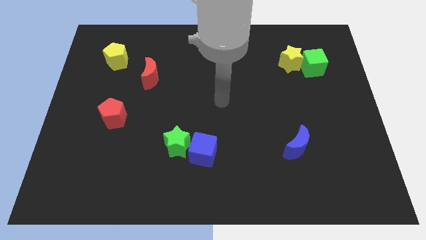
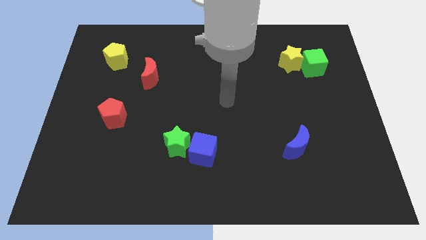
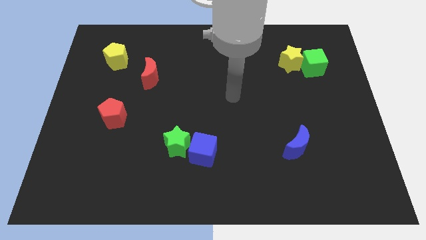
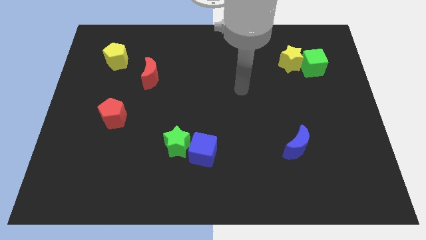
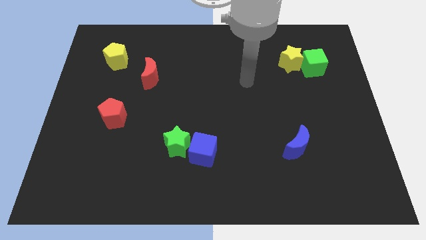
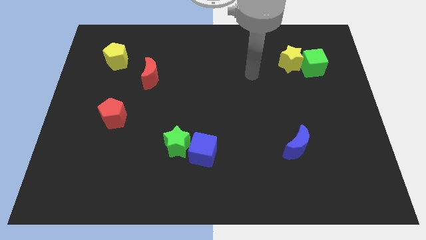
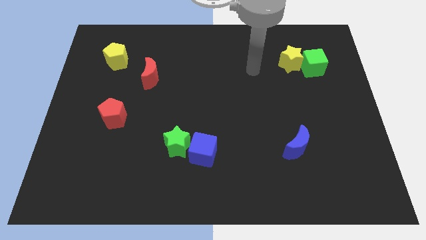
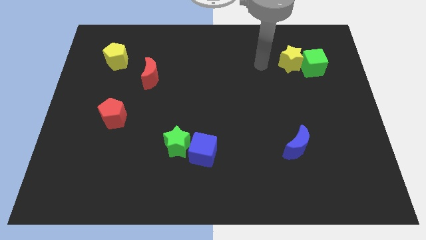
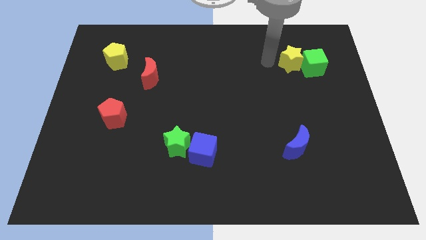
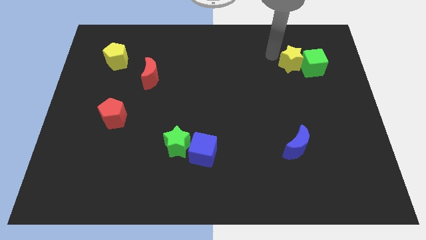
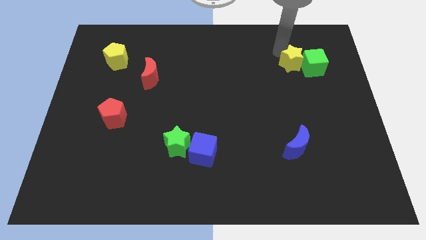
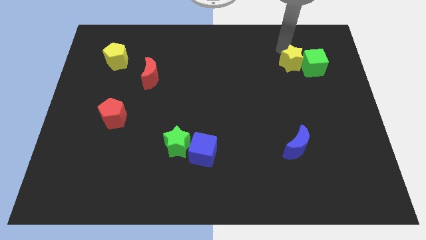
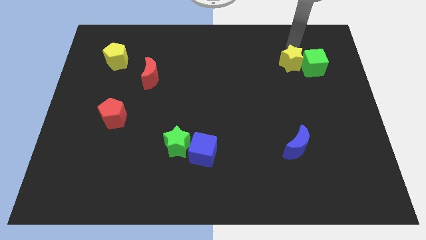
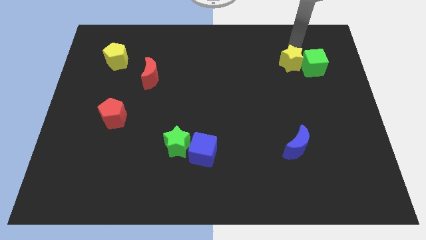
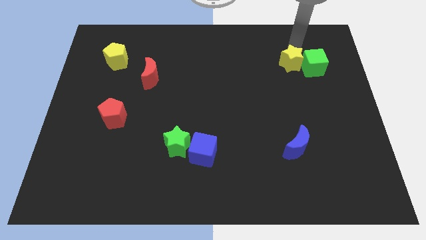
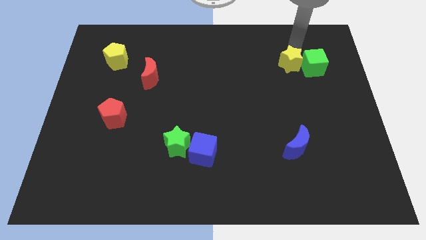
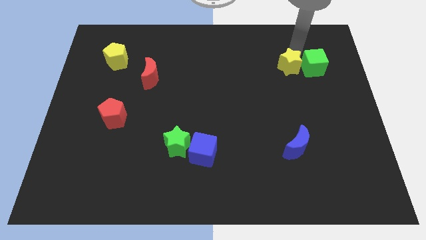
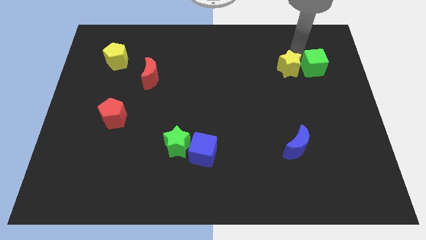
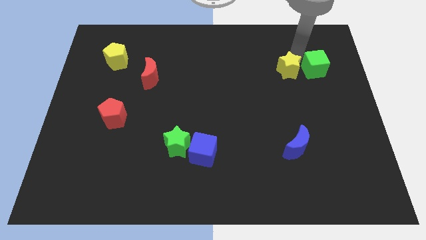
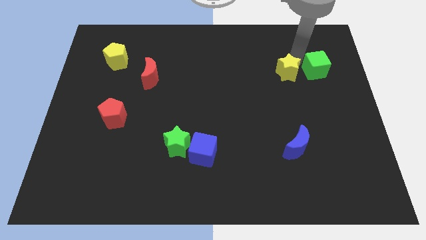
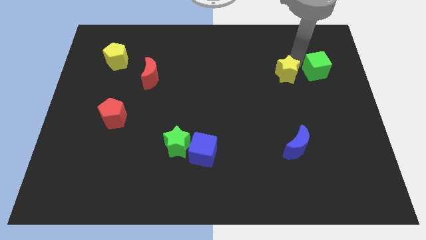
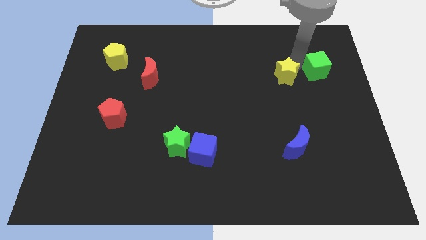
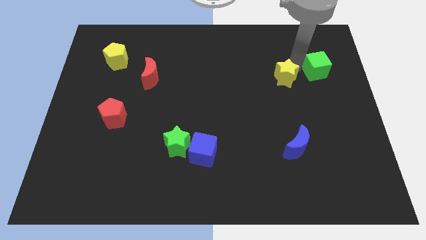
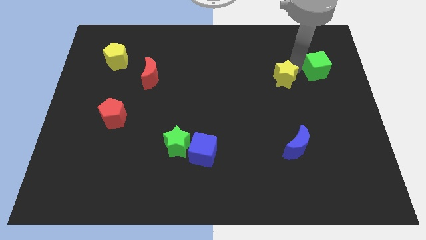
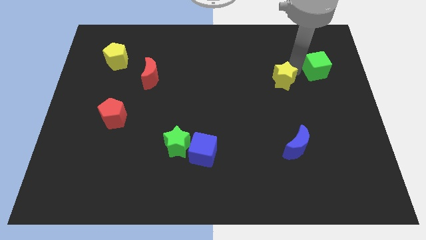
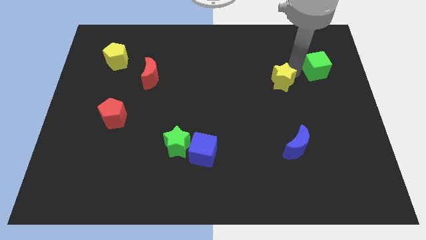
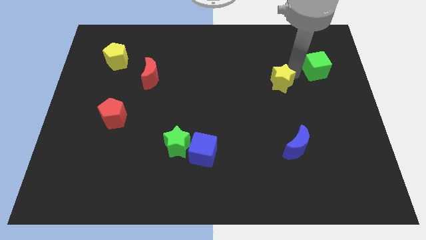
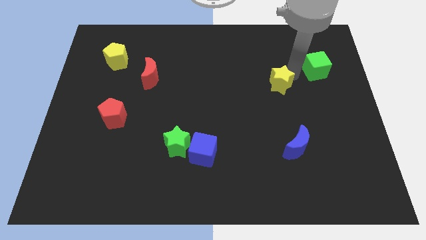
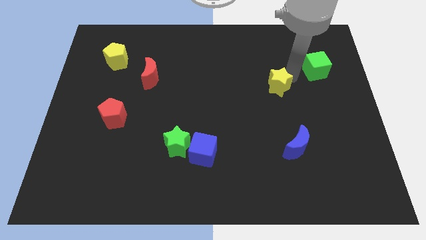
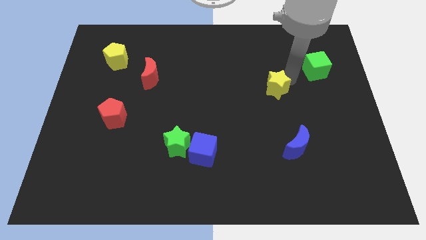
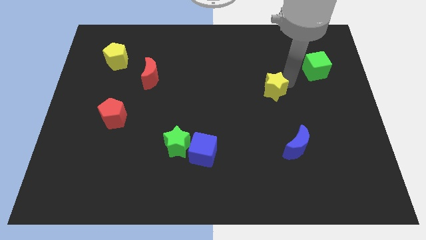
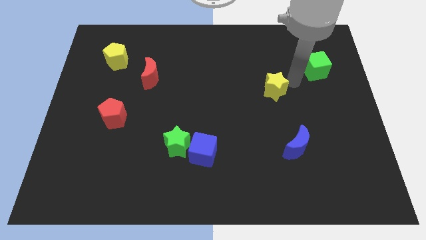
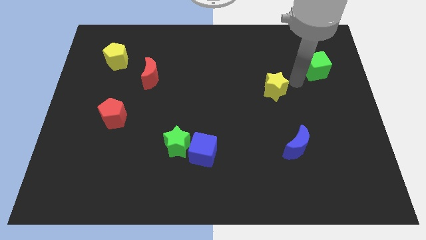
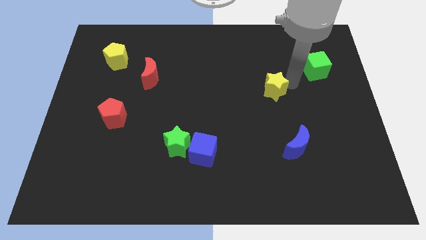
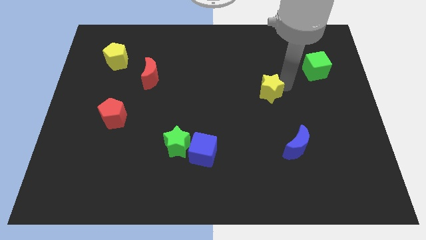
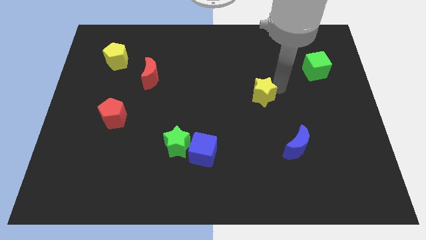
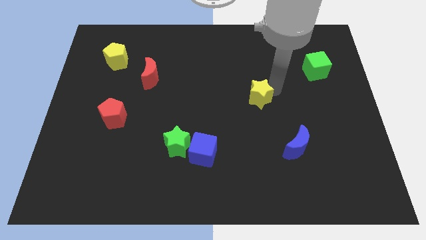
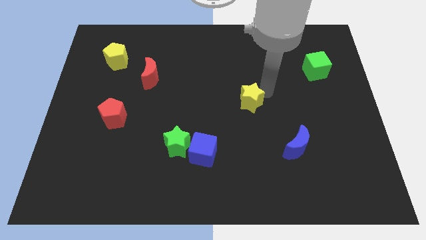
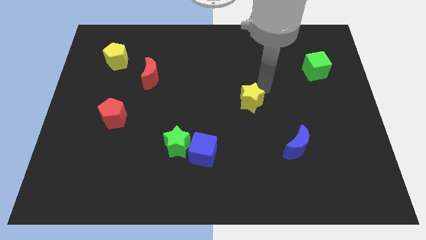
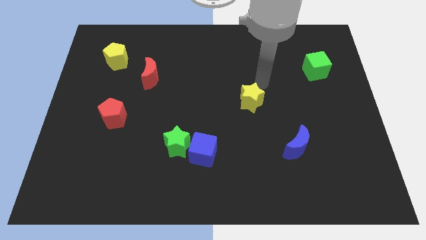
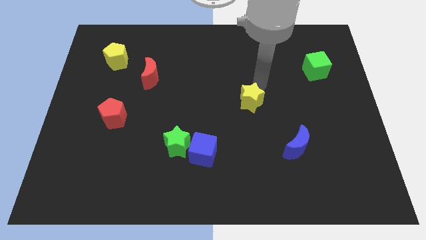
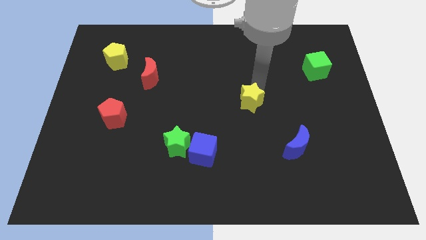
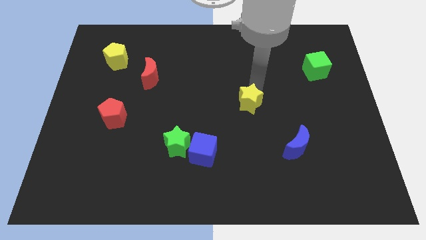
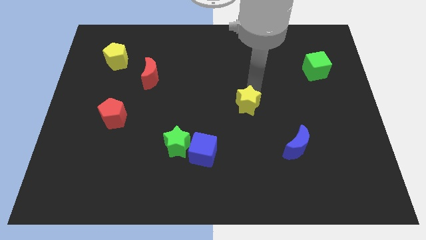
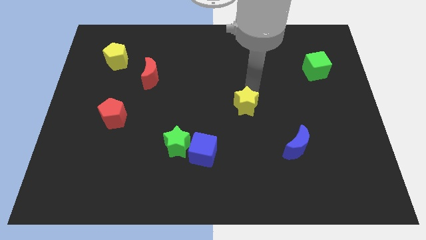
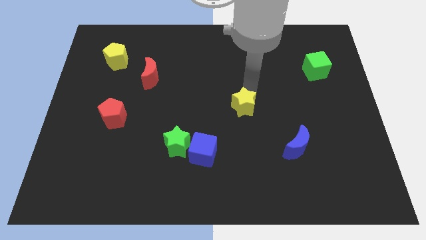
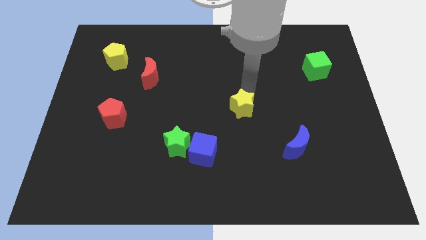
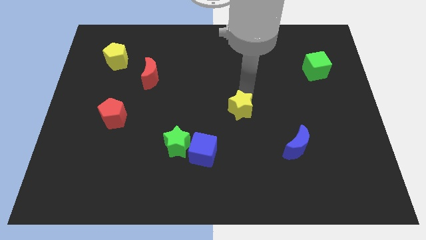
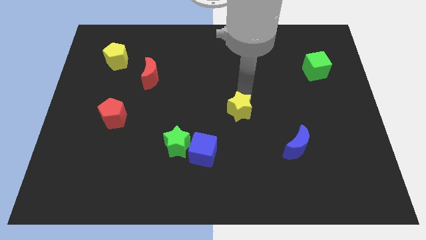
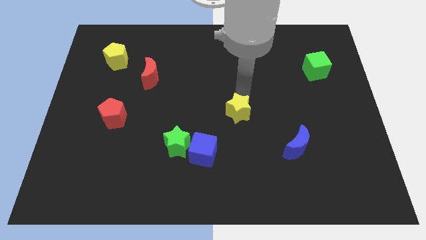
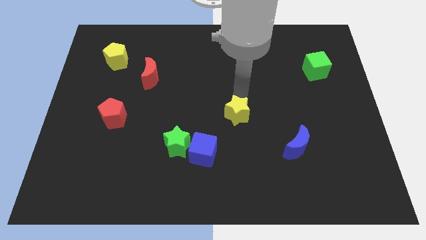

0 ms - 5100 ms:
move the yellow star to the top right side of the blue cube

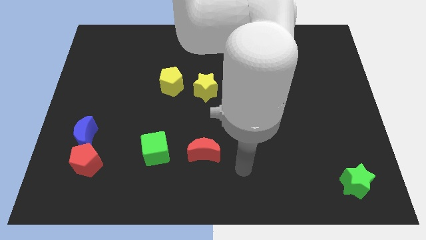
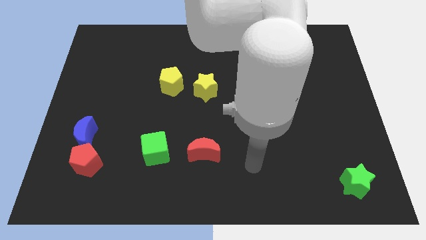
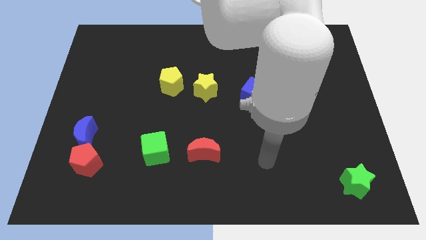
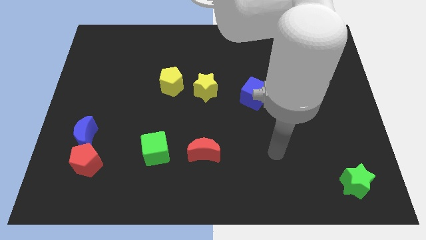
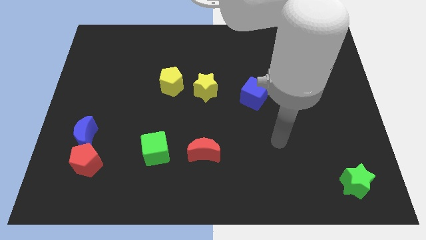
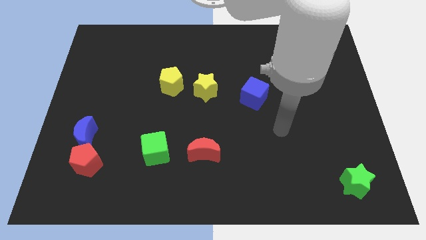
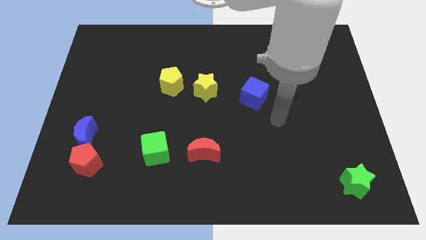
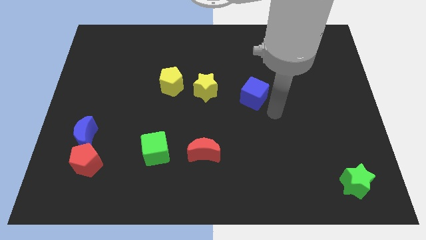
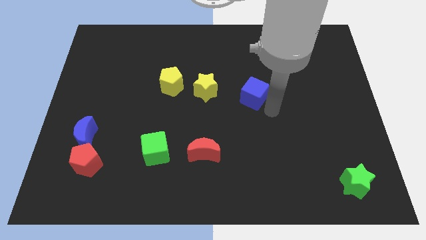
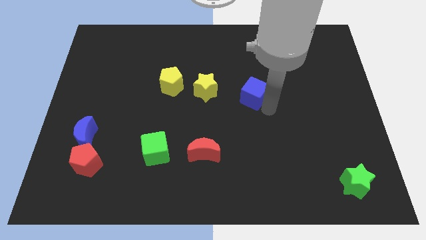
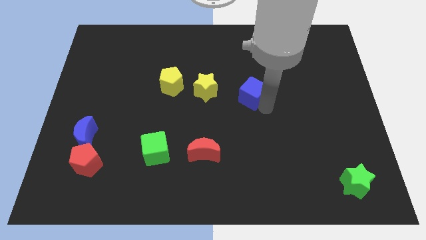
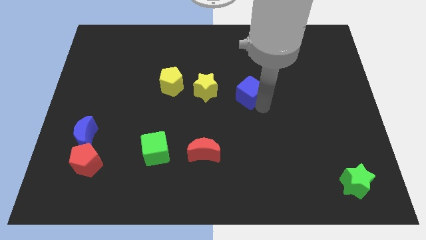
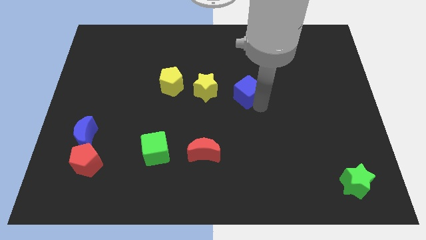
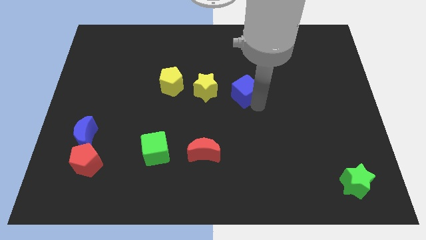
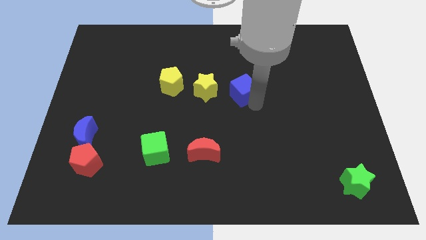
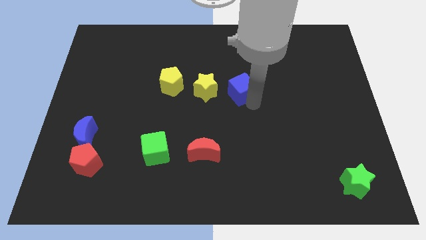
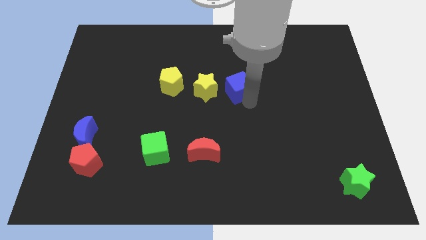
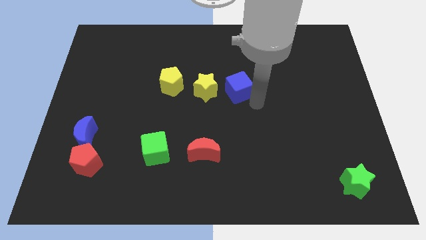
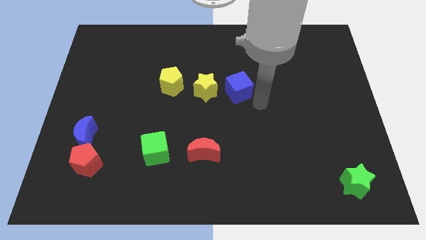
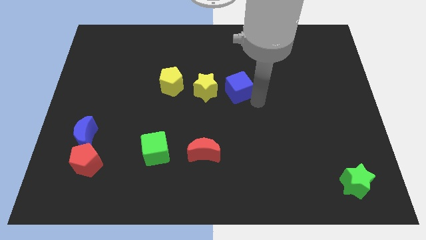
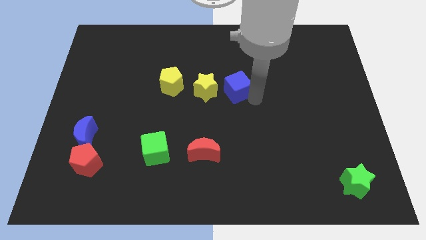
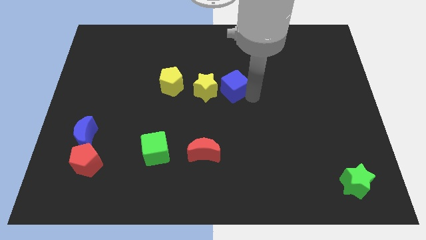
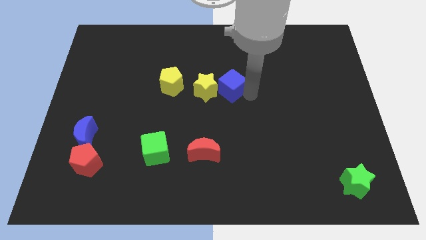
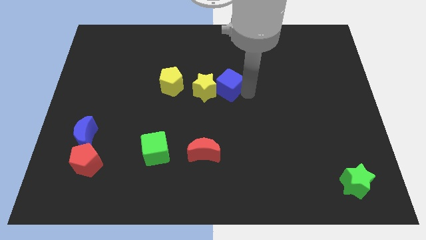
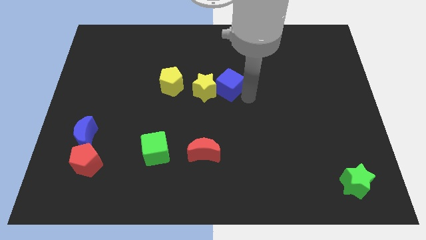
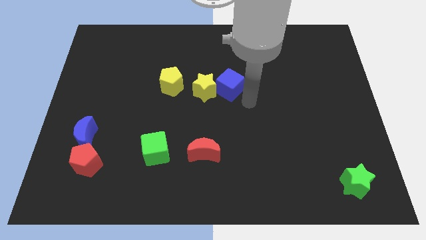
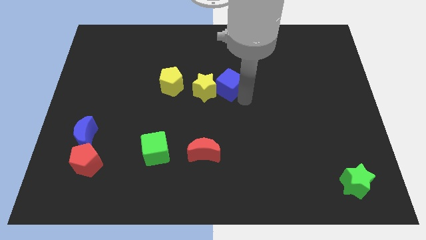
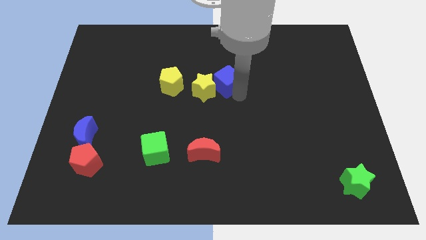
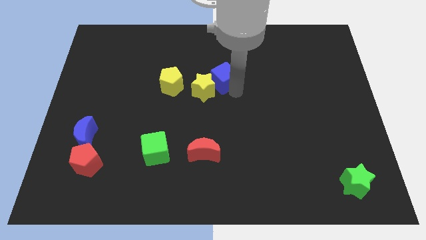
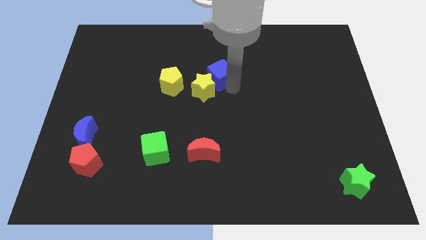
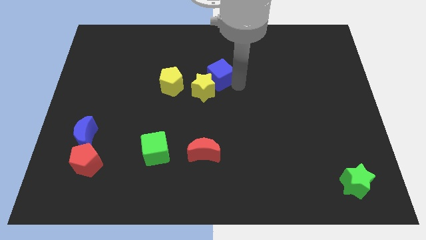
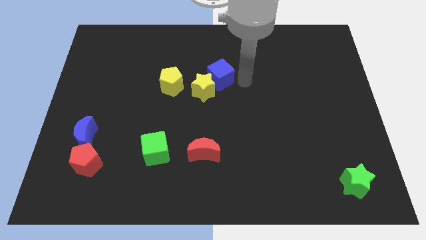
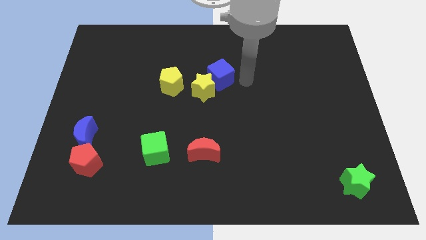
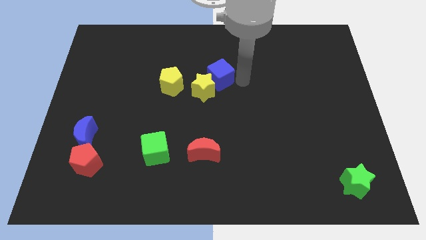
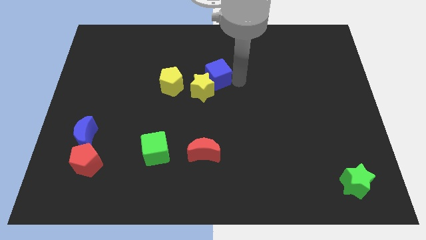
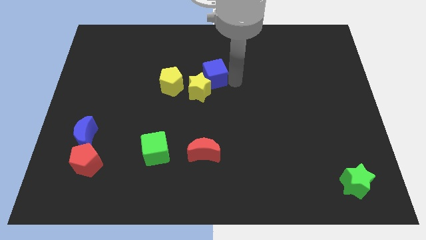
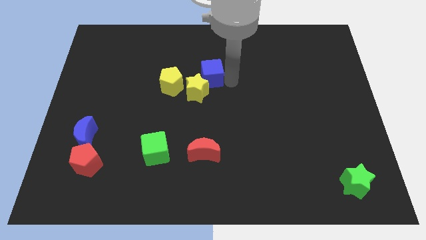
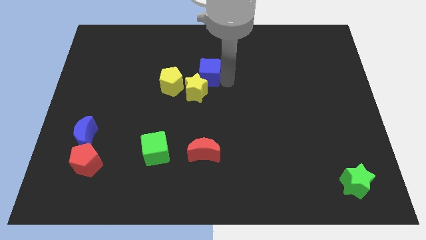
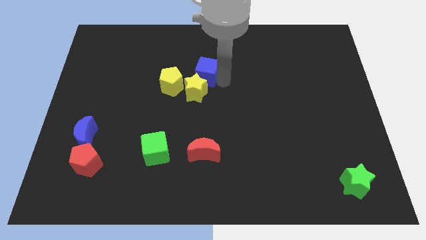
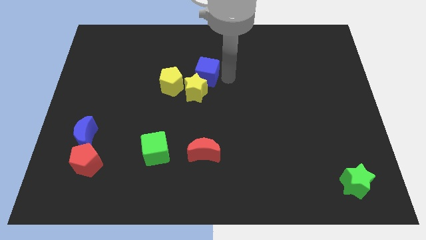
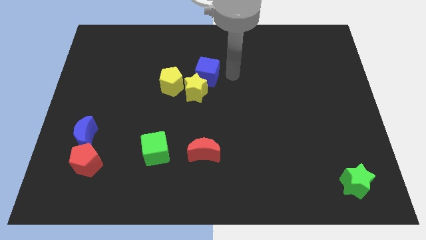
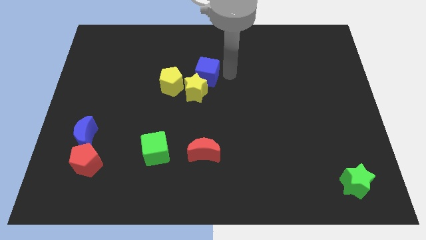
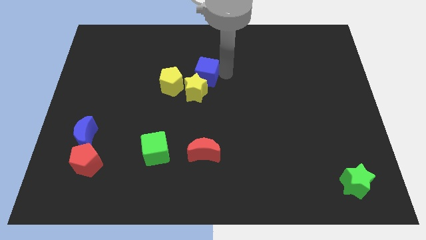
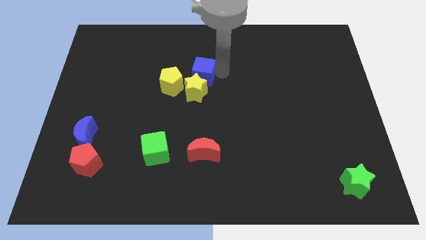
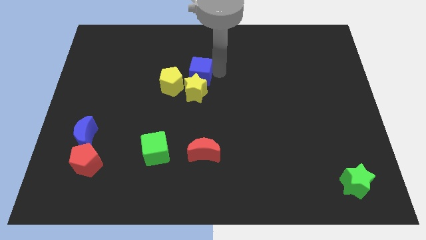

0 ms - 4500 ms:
put the blue cube to the top left side of the yellow star
